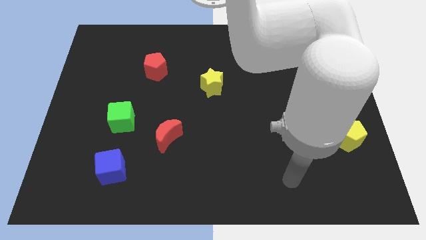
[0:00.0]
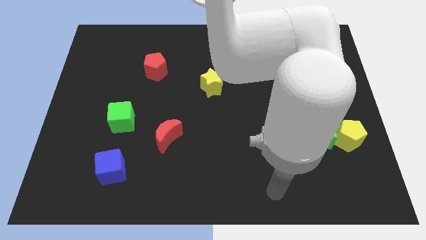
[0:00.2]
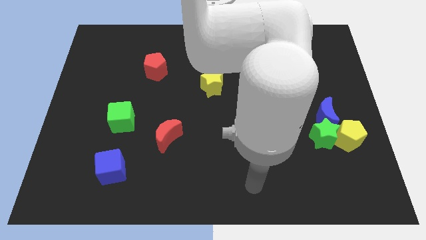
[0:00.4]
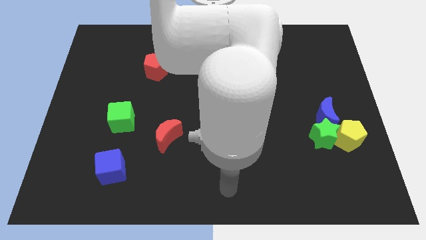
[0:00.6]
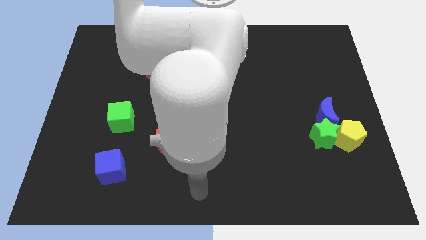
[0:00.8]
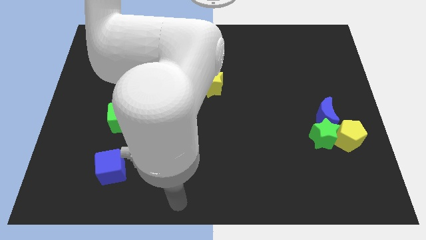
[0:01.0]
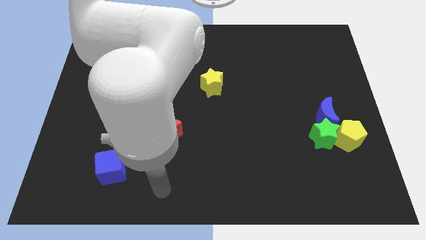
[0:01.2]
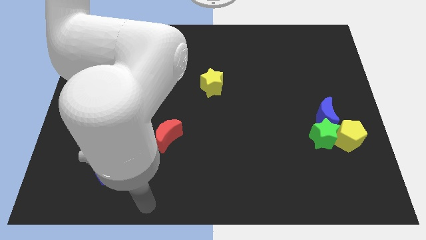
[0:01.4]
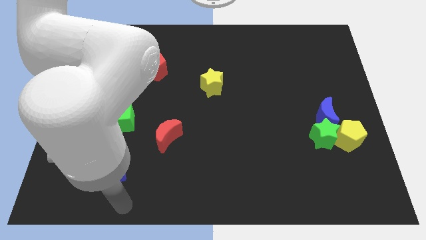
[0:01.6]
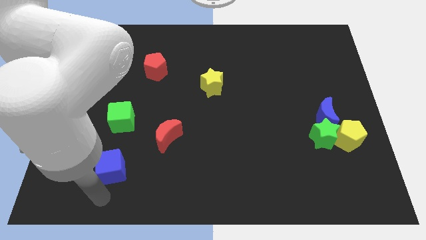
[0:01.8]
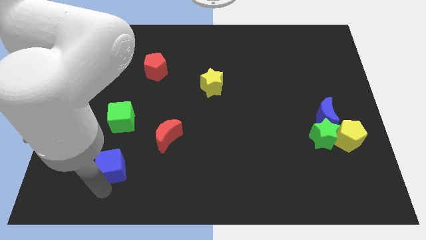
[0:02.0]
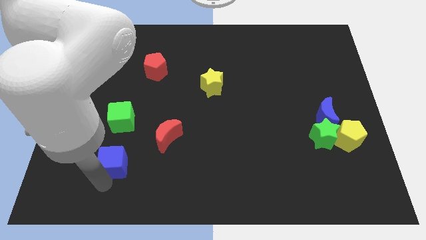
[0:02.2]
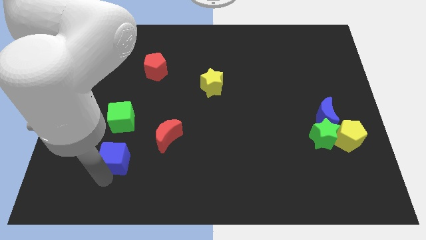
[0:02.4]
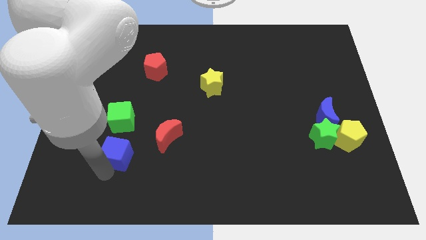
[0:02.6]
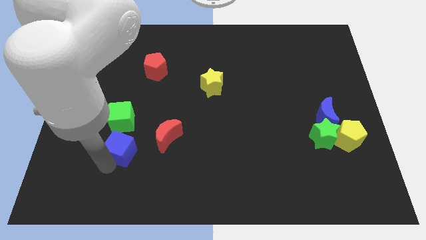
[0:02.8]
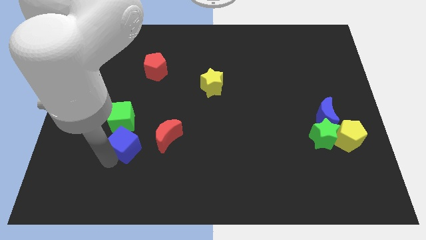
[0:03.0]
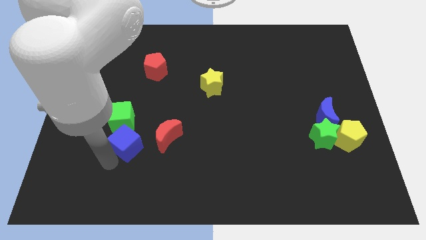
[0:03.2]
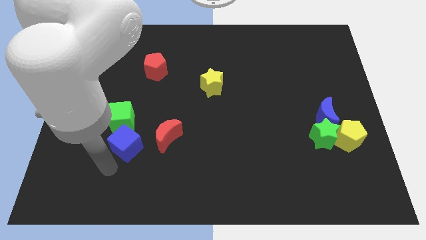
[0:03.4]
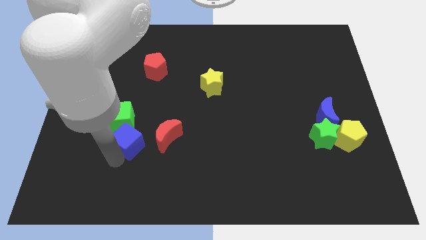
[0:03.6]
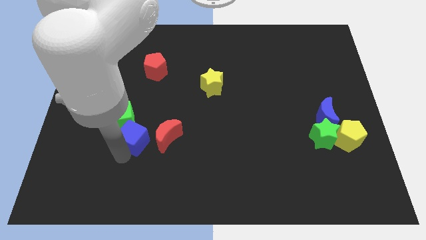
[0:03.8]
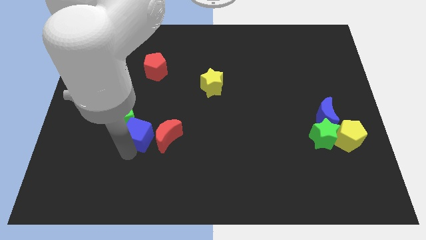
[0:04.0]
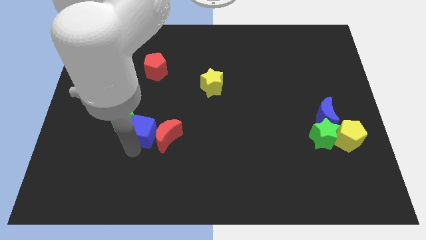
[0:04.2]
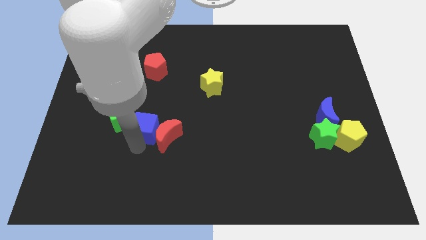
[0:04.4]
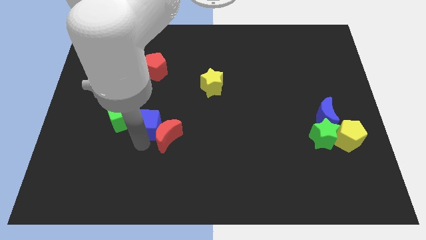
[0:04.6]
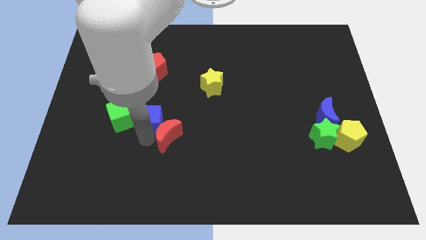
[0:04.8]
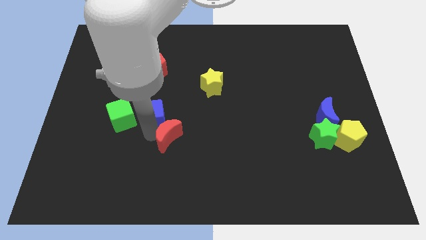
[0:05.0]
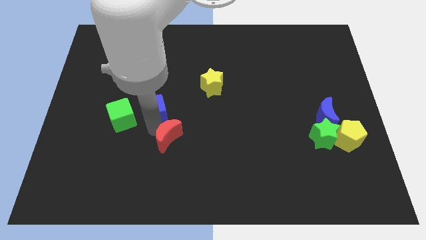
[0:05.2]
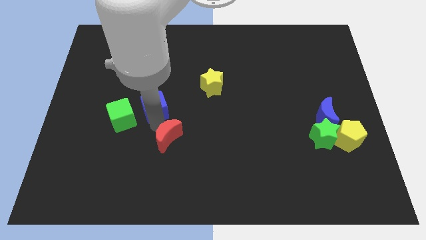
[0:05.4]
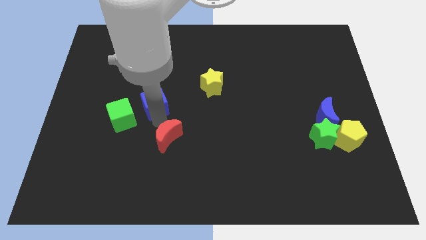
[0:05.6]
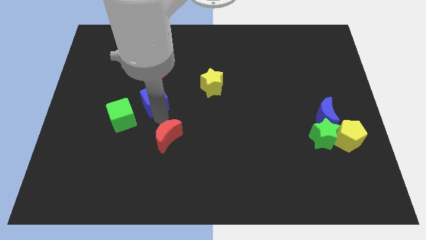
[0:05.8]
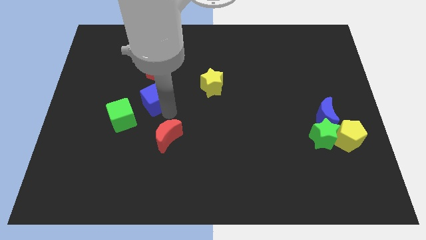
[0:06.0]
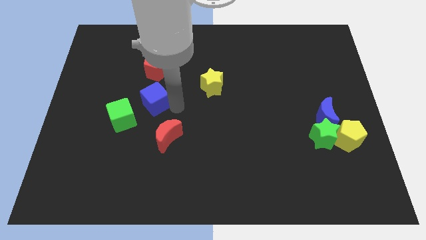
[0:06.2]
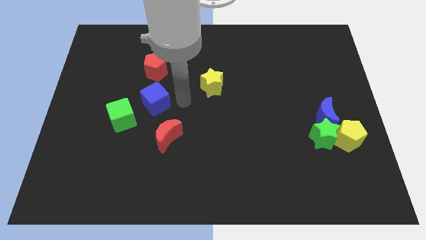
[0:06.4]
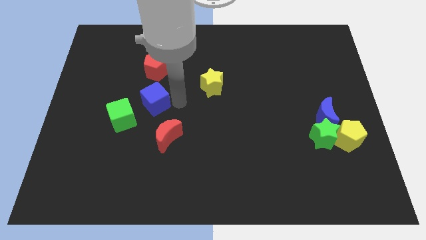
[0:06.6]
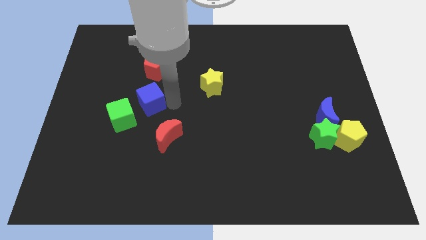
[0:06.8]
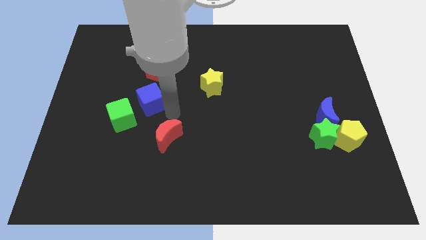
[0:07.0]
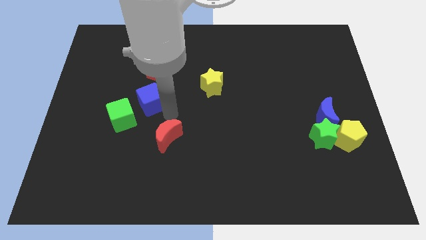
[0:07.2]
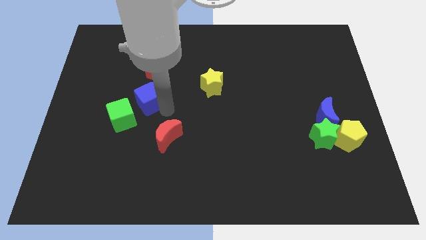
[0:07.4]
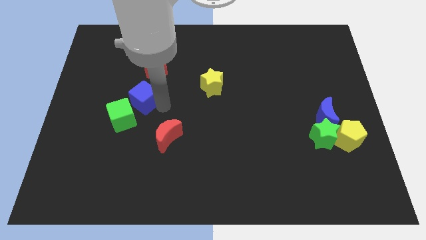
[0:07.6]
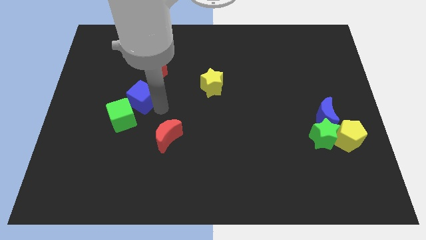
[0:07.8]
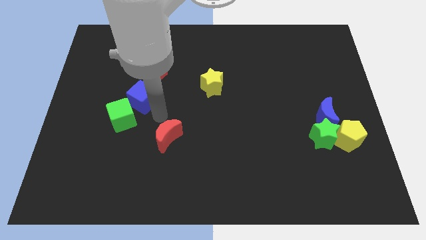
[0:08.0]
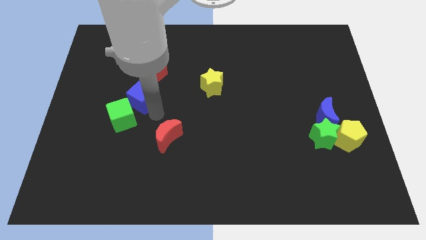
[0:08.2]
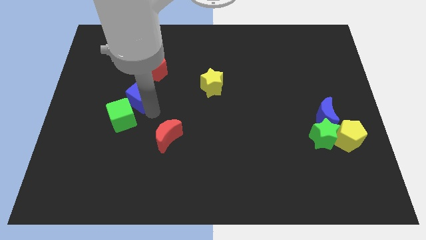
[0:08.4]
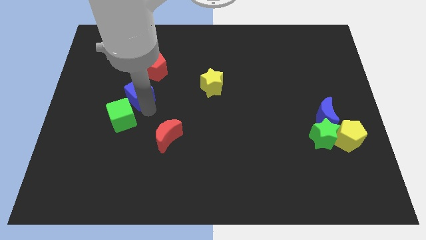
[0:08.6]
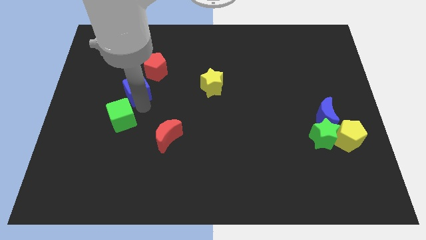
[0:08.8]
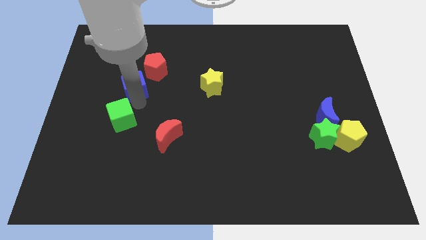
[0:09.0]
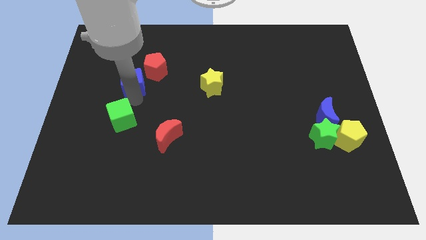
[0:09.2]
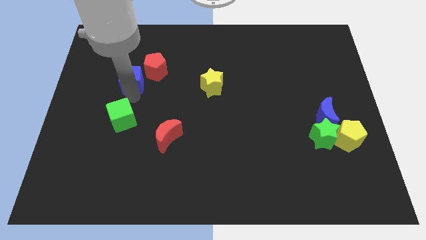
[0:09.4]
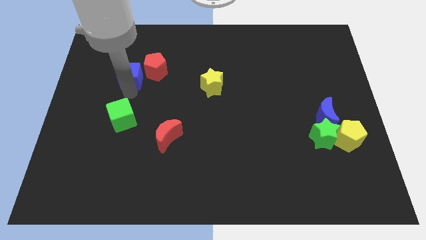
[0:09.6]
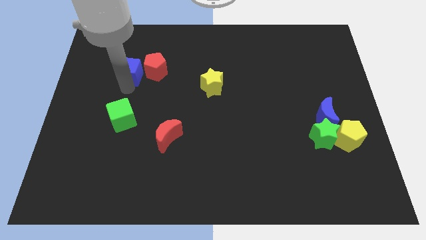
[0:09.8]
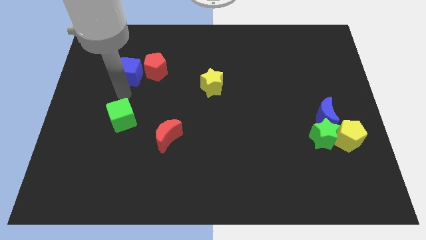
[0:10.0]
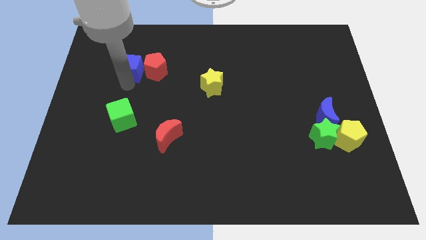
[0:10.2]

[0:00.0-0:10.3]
slide the blue cube to the top left of the red pentagon

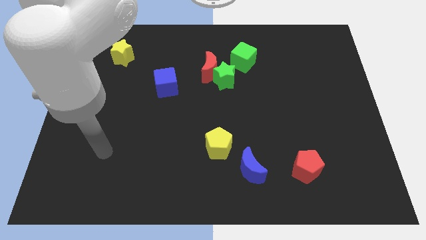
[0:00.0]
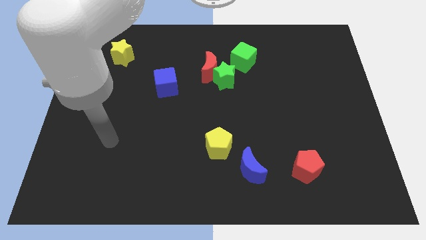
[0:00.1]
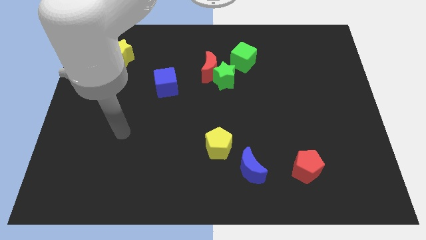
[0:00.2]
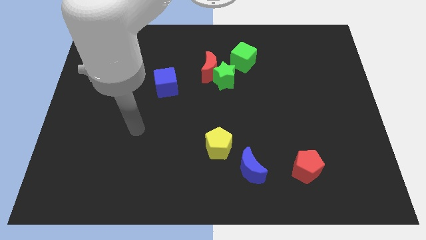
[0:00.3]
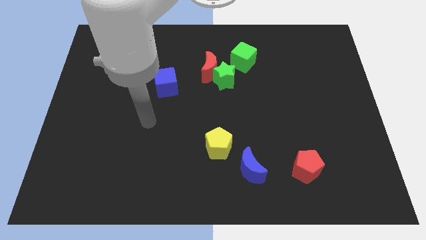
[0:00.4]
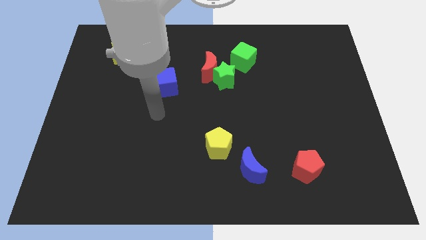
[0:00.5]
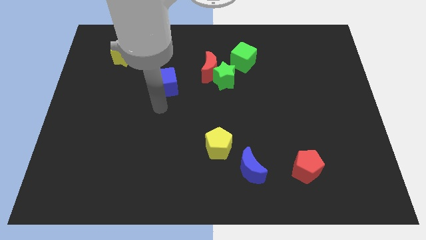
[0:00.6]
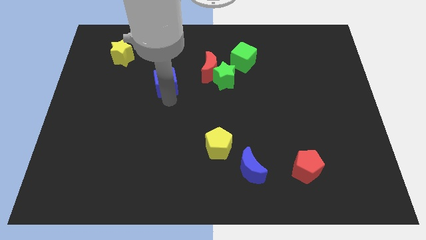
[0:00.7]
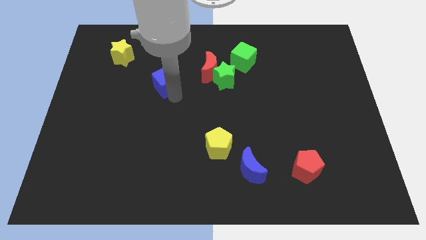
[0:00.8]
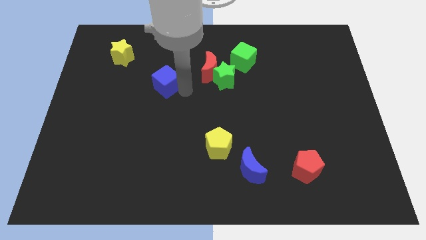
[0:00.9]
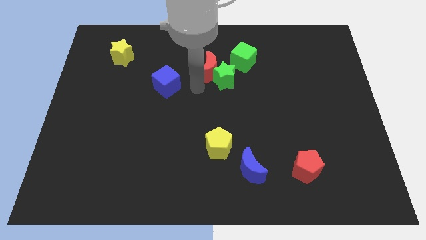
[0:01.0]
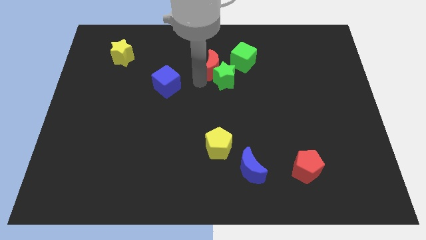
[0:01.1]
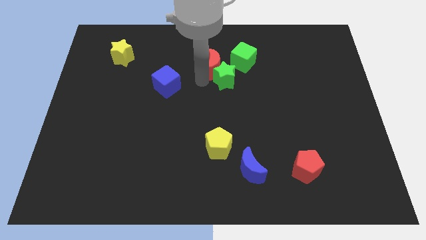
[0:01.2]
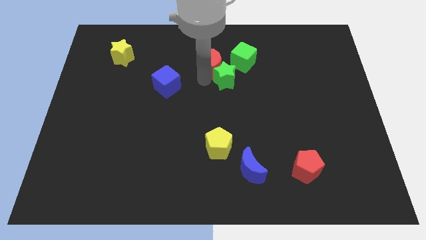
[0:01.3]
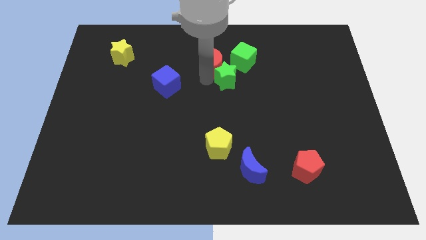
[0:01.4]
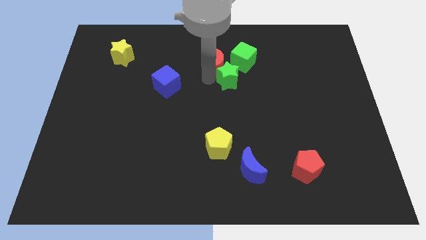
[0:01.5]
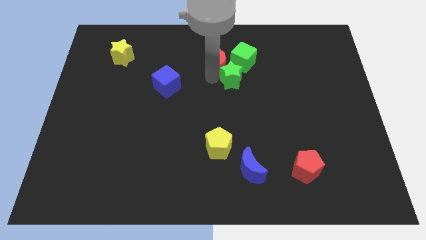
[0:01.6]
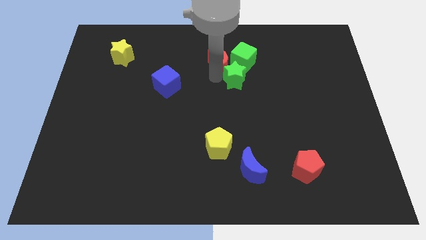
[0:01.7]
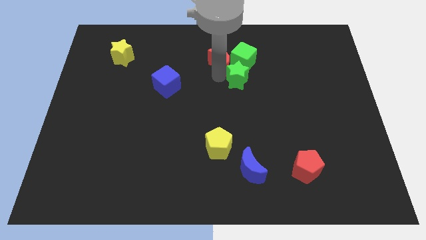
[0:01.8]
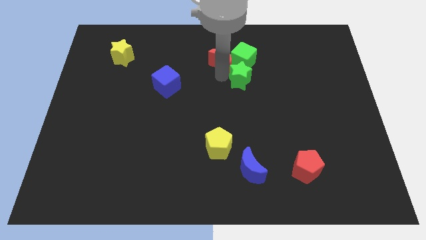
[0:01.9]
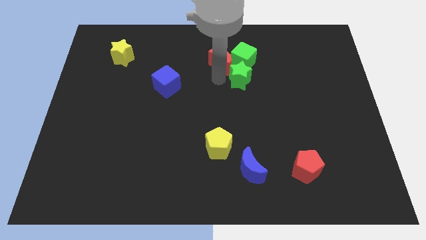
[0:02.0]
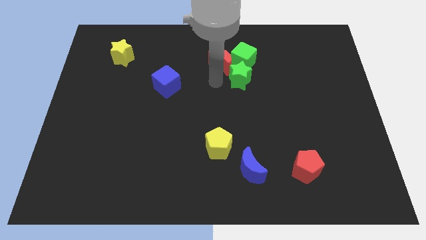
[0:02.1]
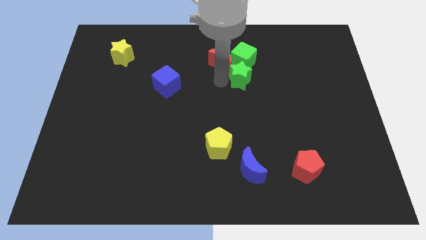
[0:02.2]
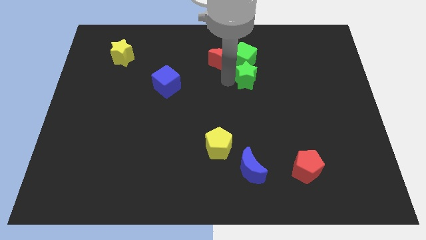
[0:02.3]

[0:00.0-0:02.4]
move the green star to the bottom right of the green cube
